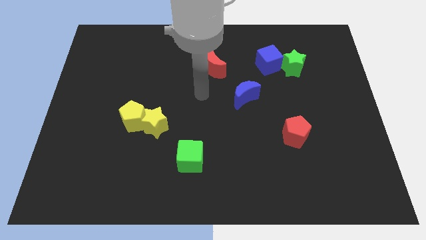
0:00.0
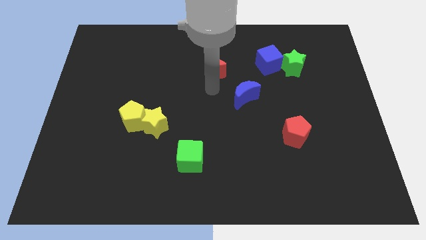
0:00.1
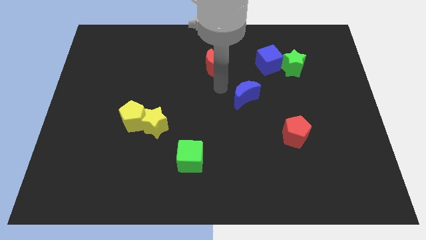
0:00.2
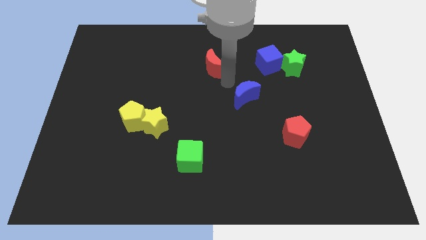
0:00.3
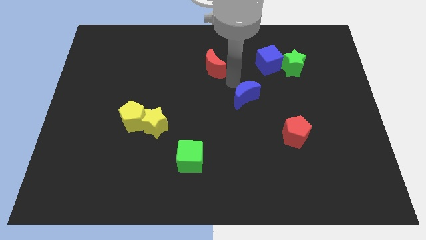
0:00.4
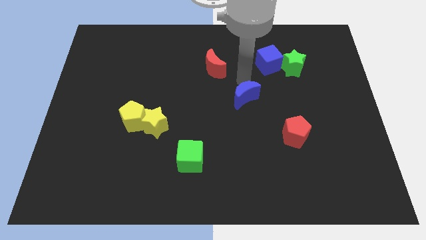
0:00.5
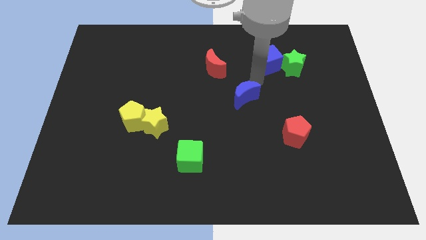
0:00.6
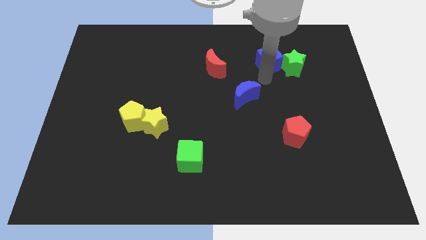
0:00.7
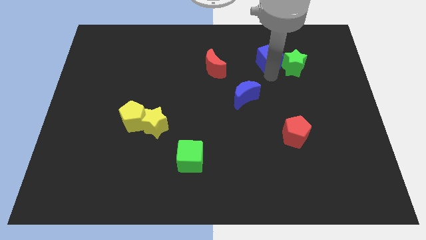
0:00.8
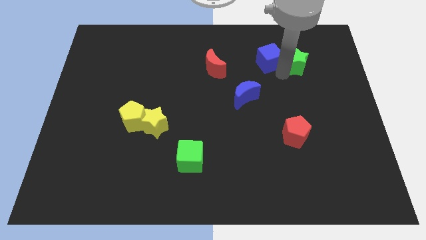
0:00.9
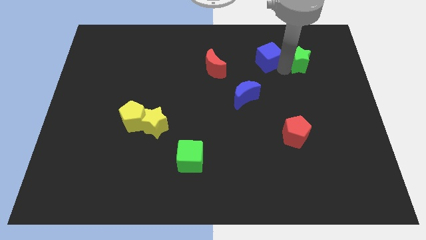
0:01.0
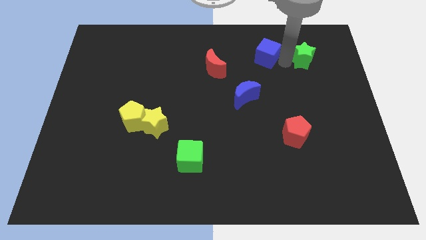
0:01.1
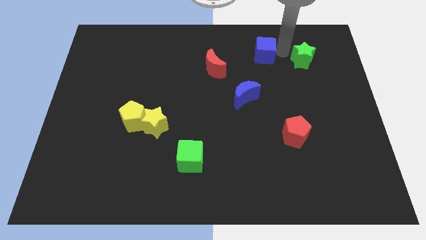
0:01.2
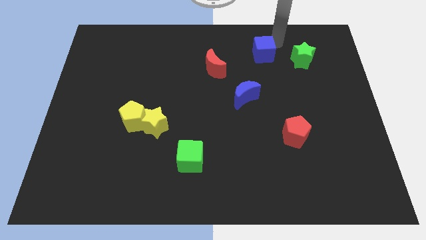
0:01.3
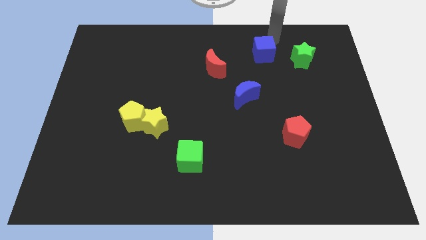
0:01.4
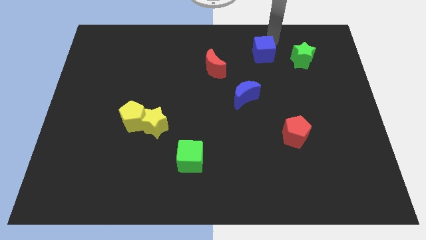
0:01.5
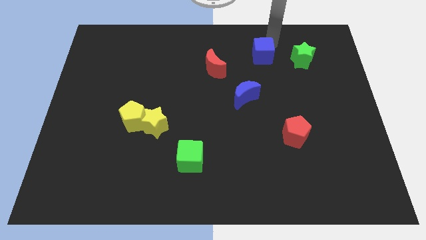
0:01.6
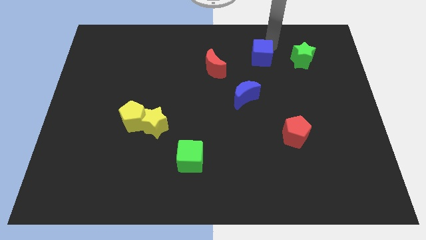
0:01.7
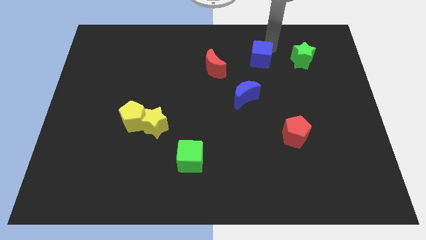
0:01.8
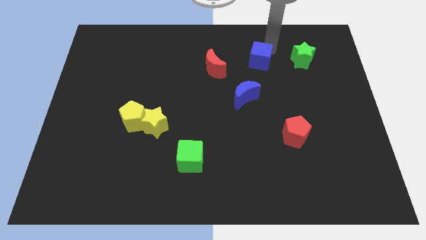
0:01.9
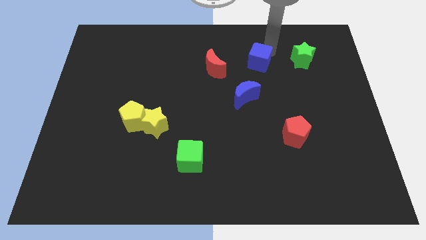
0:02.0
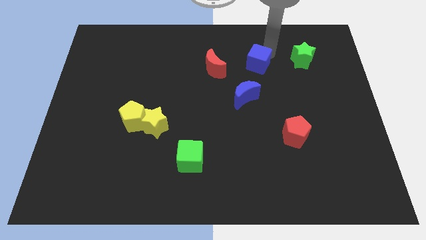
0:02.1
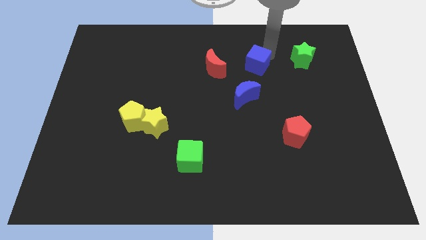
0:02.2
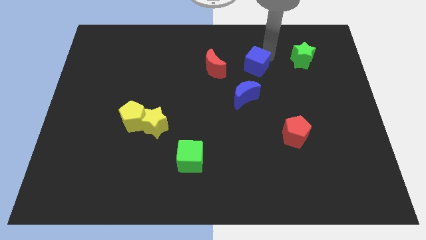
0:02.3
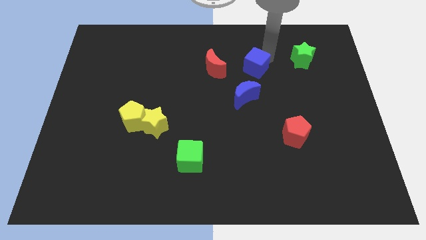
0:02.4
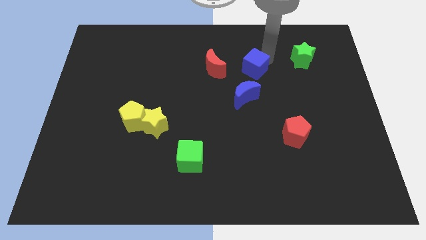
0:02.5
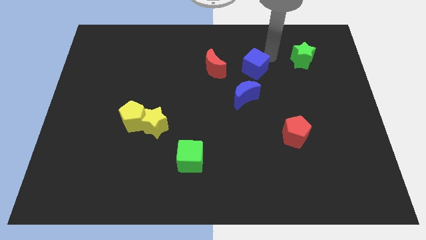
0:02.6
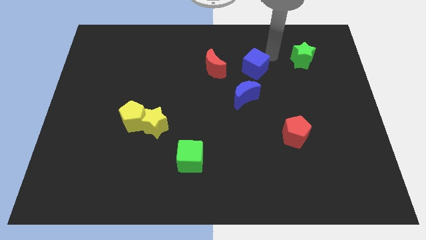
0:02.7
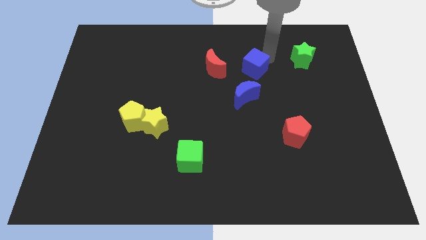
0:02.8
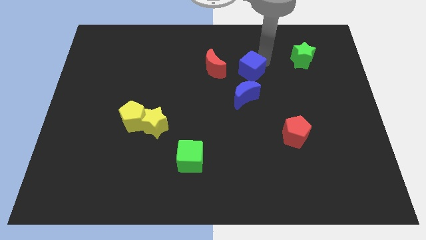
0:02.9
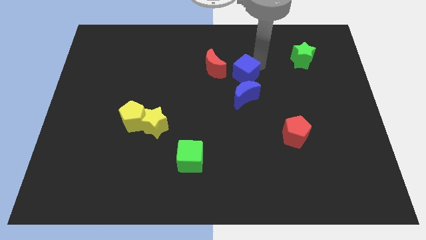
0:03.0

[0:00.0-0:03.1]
slide the blue cube slightly down and then left

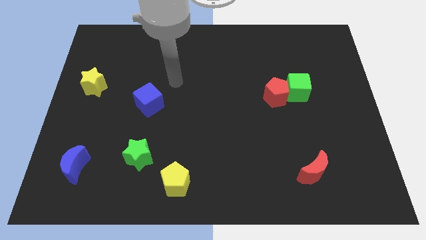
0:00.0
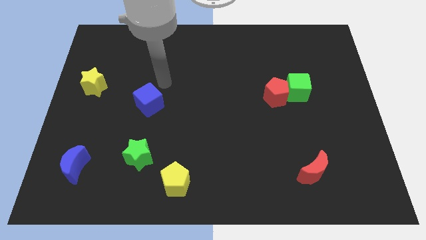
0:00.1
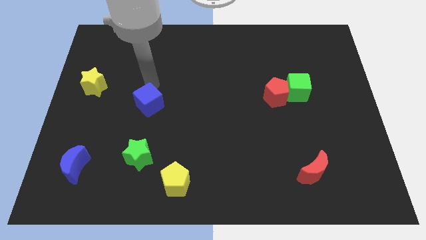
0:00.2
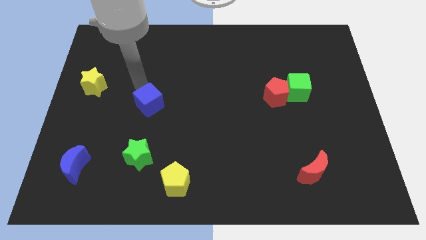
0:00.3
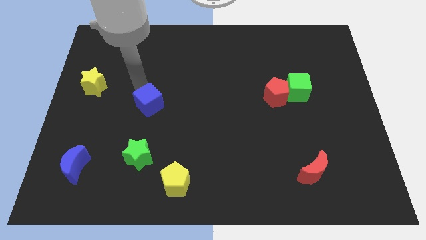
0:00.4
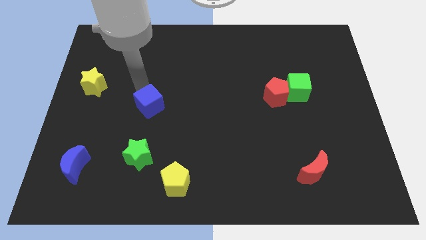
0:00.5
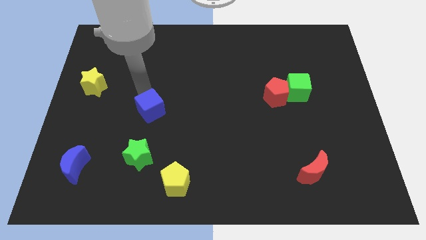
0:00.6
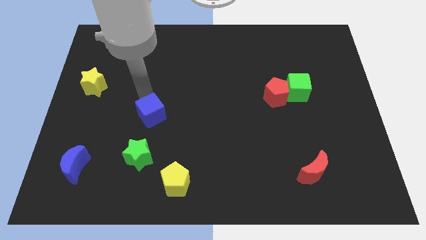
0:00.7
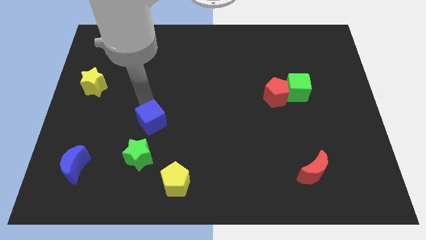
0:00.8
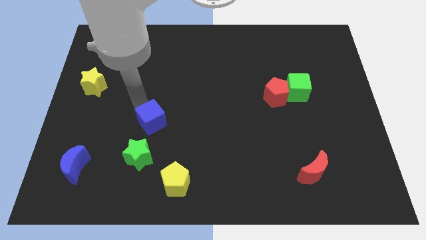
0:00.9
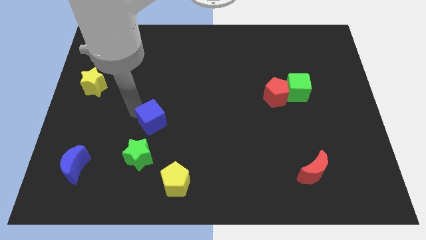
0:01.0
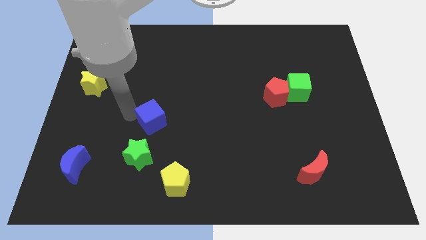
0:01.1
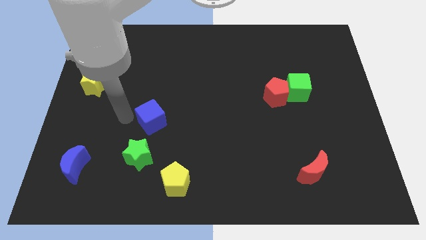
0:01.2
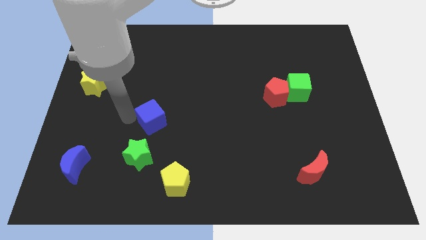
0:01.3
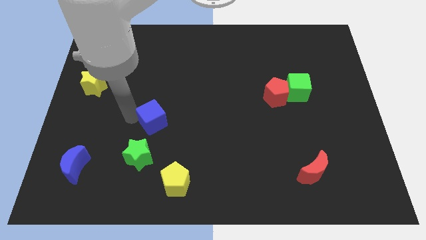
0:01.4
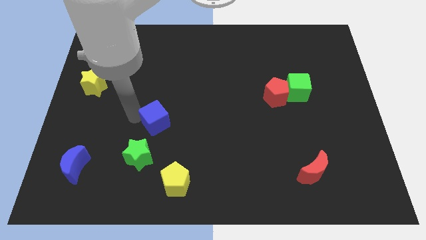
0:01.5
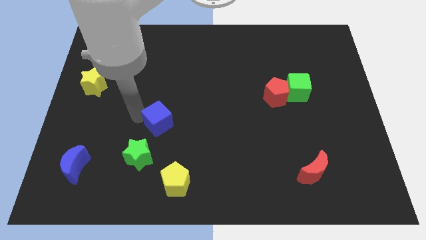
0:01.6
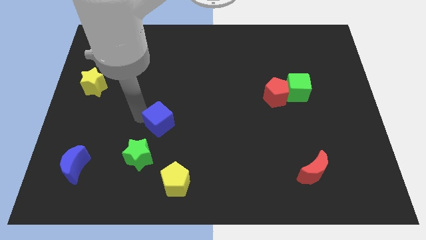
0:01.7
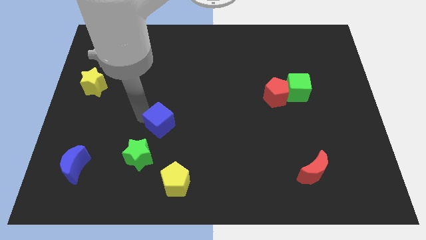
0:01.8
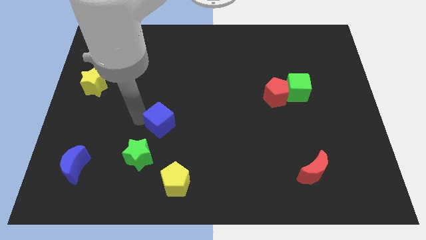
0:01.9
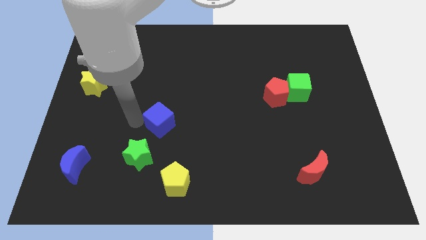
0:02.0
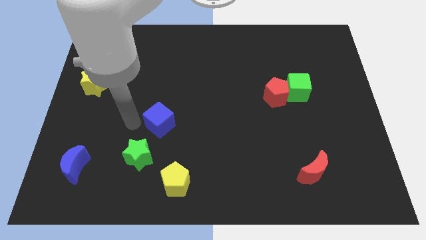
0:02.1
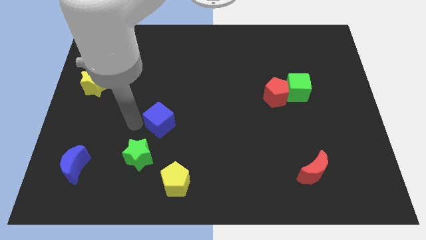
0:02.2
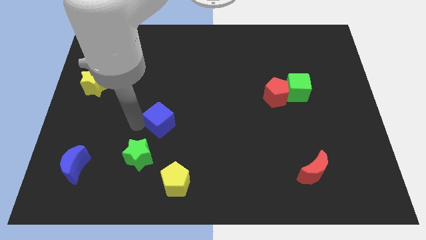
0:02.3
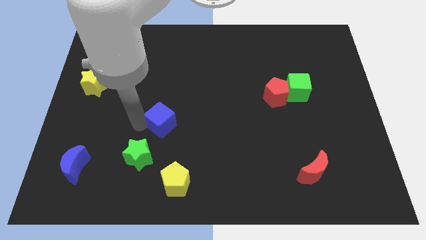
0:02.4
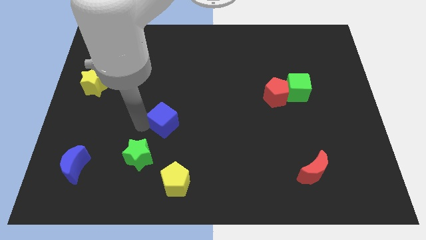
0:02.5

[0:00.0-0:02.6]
slide the blue cube a little bit down and then right

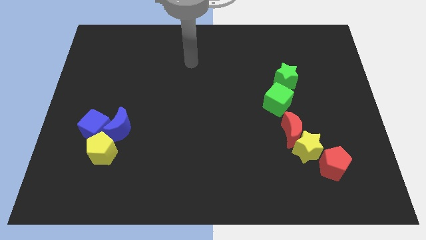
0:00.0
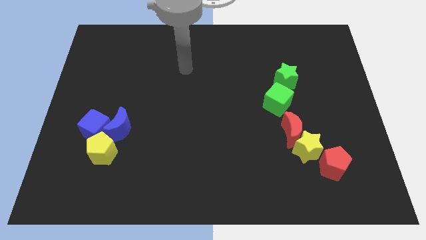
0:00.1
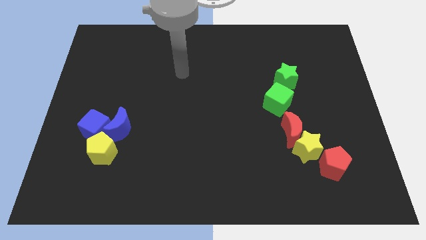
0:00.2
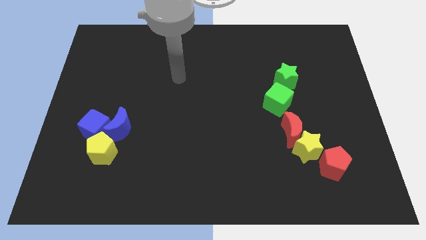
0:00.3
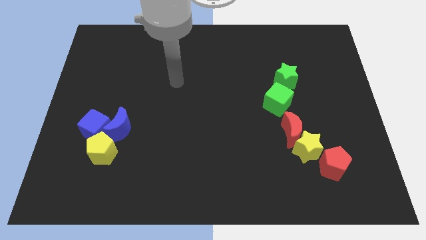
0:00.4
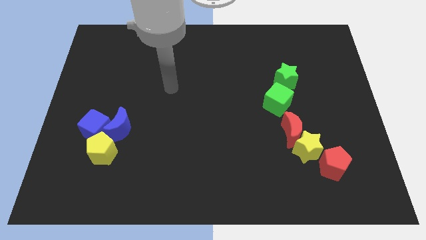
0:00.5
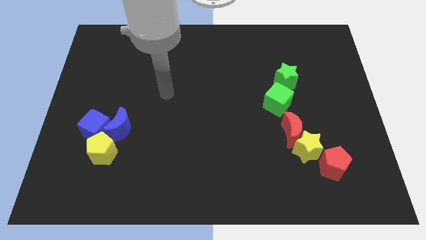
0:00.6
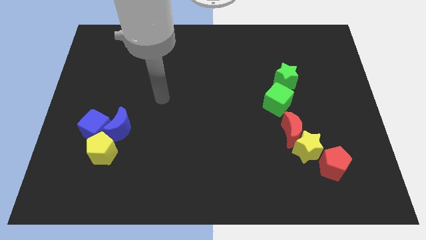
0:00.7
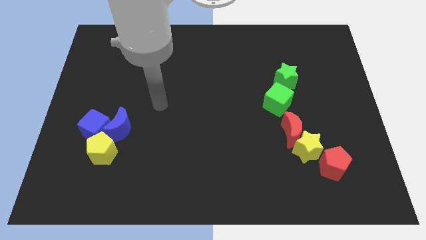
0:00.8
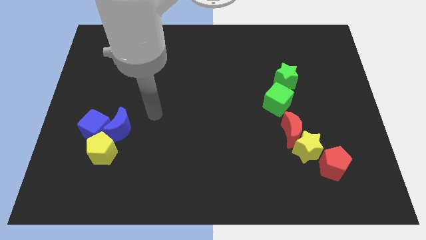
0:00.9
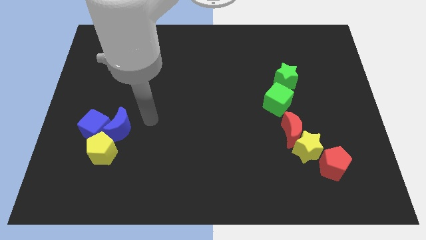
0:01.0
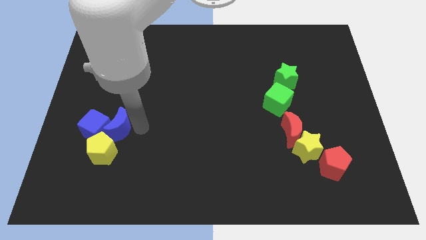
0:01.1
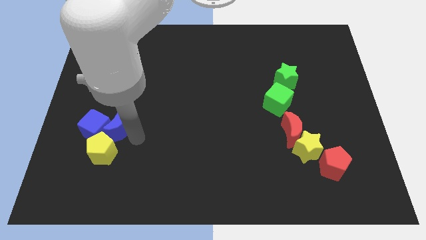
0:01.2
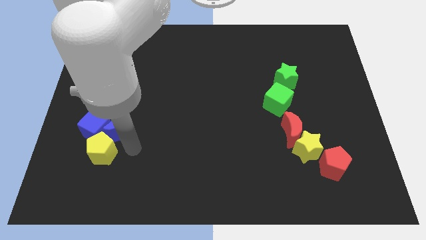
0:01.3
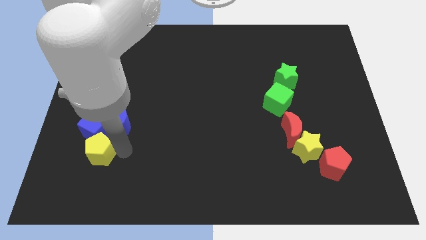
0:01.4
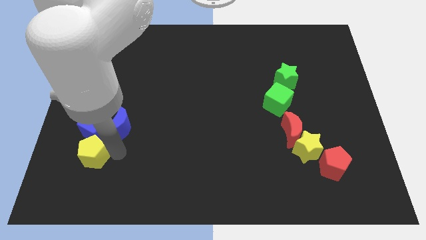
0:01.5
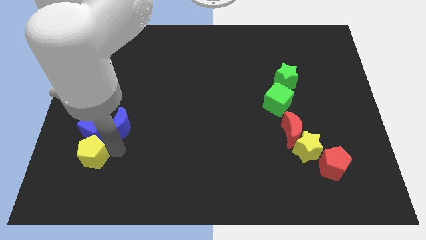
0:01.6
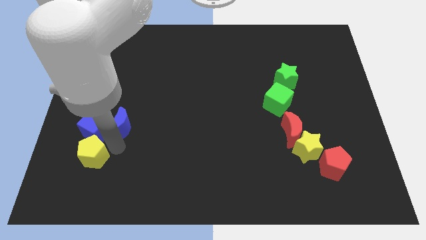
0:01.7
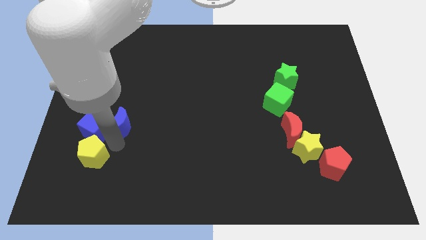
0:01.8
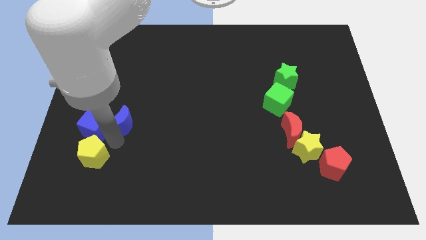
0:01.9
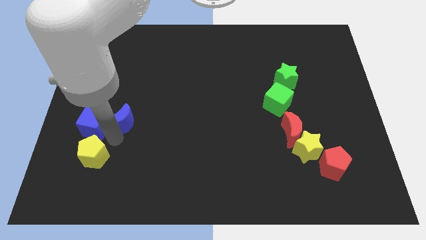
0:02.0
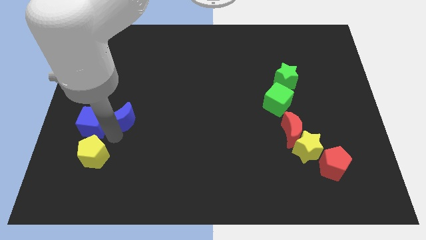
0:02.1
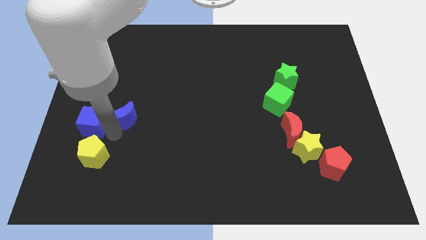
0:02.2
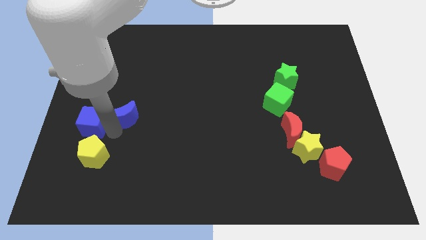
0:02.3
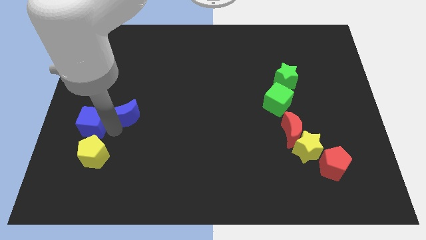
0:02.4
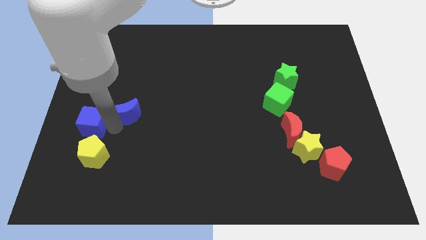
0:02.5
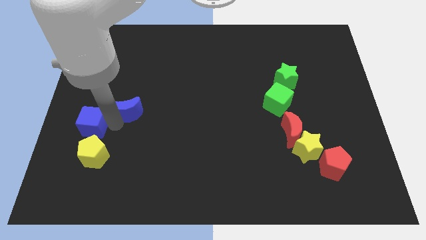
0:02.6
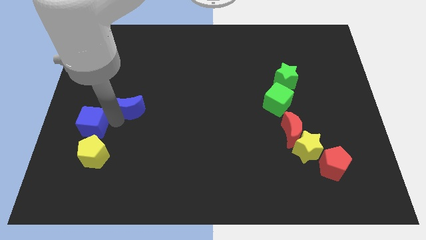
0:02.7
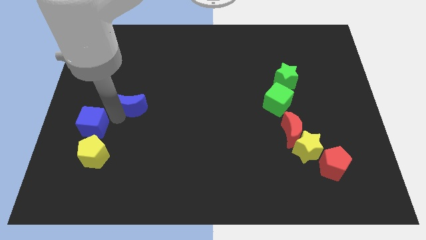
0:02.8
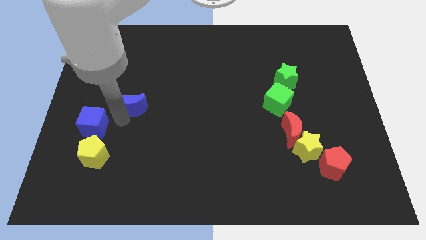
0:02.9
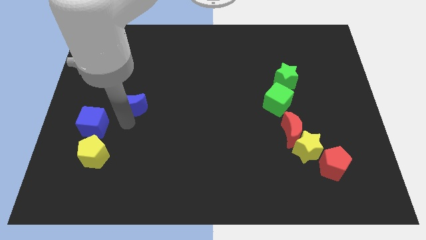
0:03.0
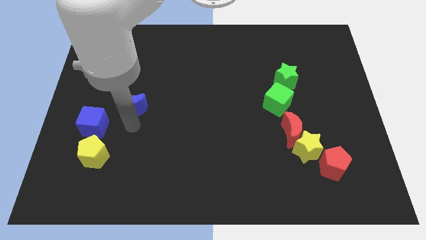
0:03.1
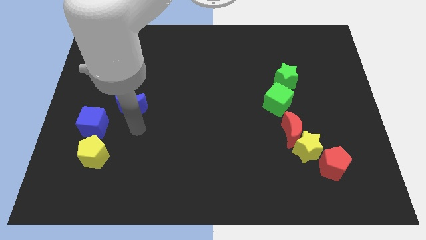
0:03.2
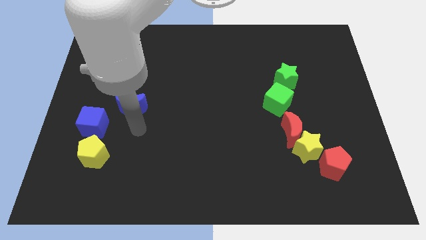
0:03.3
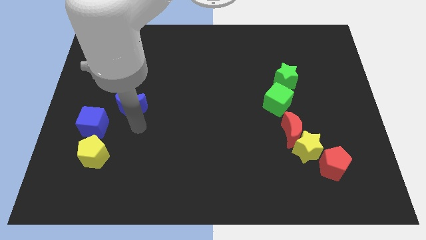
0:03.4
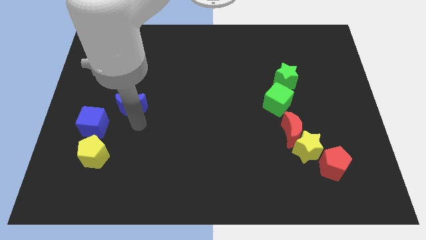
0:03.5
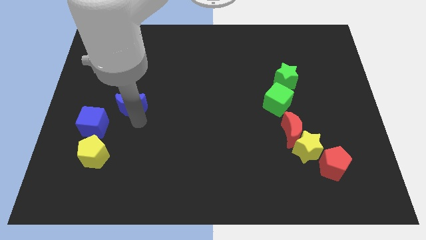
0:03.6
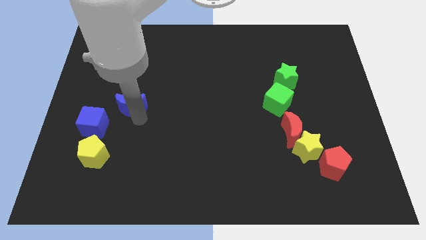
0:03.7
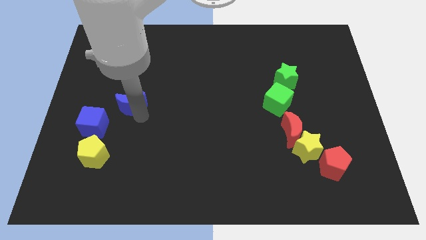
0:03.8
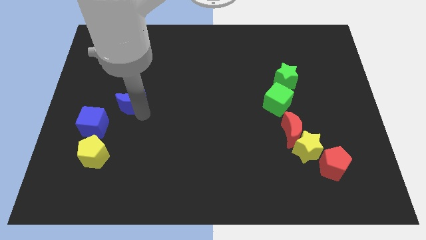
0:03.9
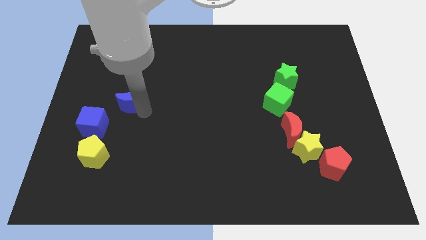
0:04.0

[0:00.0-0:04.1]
slightly move the blue moon upwards
